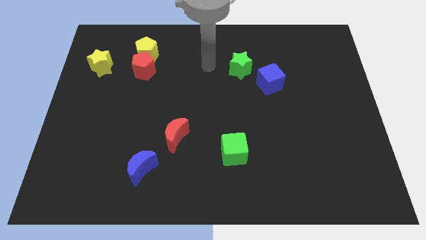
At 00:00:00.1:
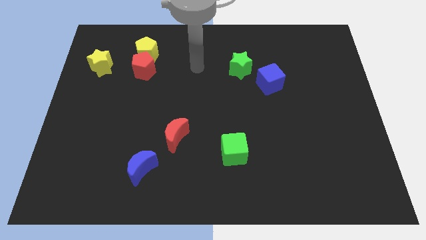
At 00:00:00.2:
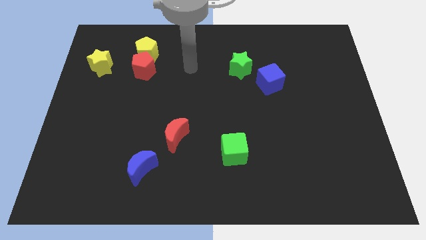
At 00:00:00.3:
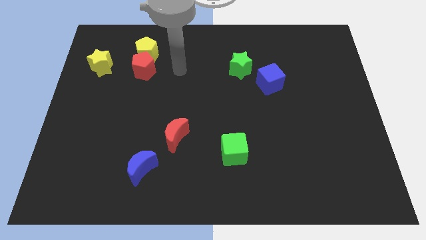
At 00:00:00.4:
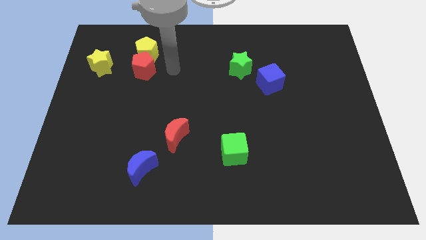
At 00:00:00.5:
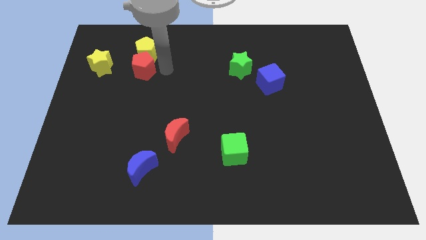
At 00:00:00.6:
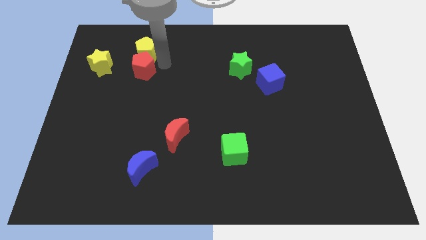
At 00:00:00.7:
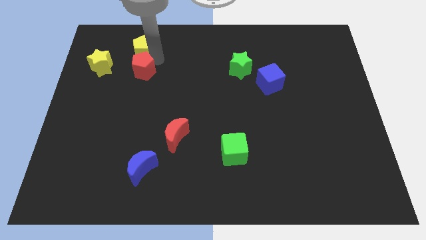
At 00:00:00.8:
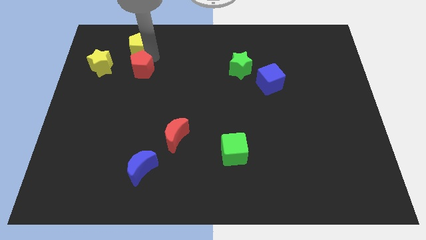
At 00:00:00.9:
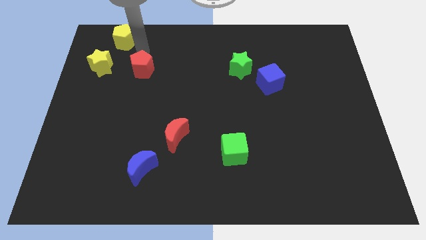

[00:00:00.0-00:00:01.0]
move the red pentagon away from the yellow pentagon

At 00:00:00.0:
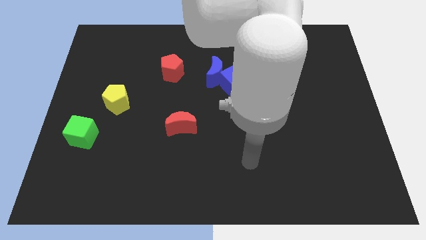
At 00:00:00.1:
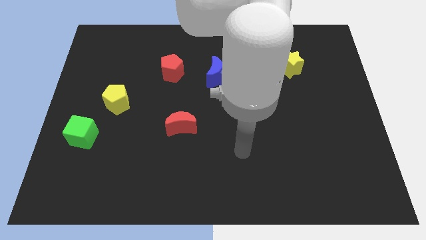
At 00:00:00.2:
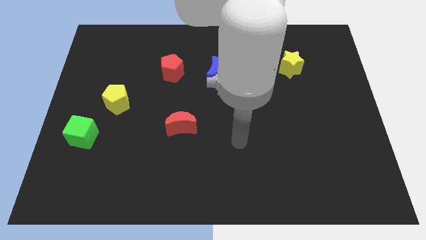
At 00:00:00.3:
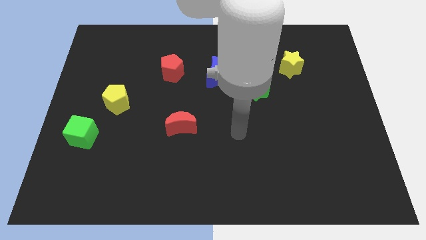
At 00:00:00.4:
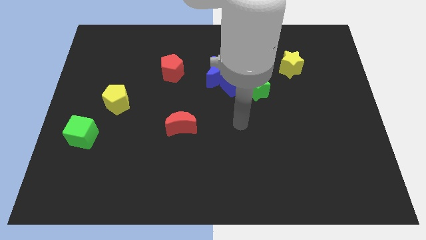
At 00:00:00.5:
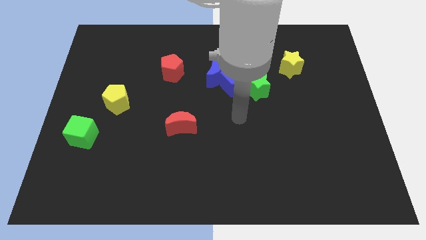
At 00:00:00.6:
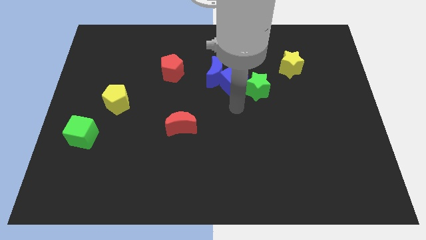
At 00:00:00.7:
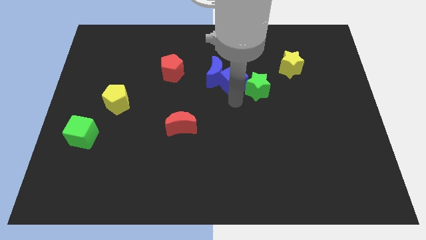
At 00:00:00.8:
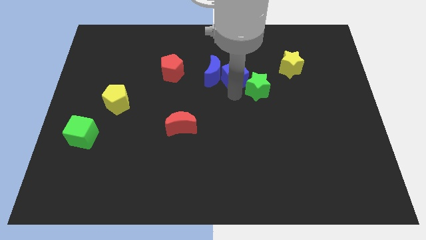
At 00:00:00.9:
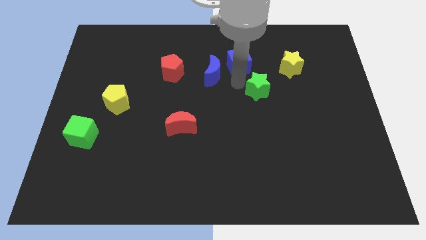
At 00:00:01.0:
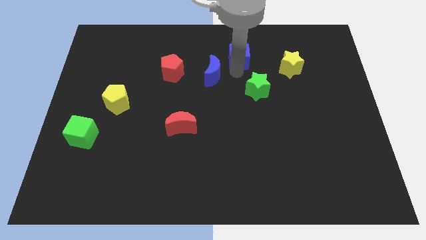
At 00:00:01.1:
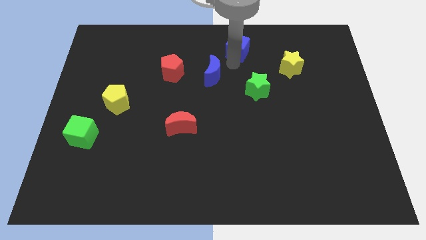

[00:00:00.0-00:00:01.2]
move the blue moon away from the blue cube

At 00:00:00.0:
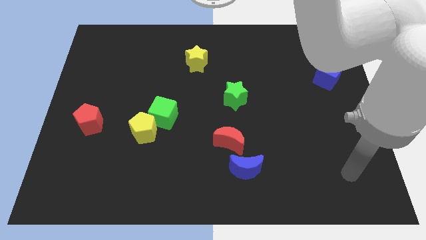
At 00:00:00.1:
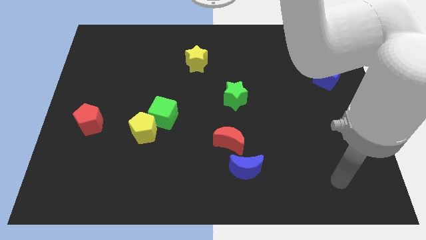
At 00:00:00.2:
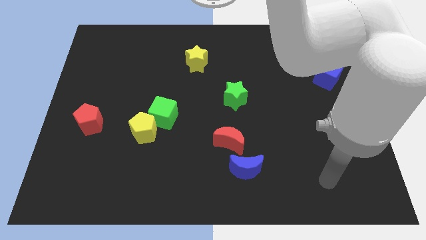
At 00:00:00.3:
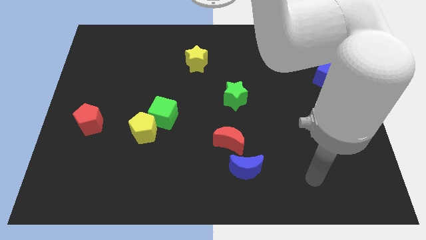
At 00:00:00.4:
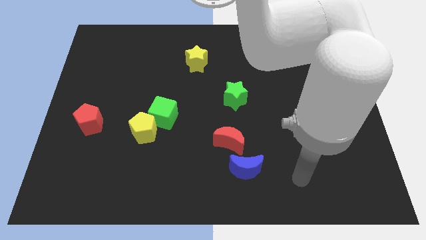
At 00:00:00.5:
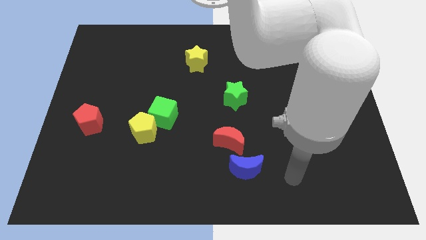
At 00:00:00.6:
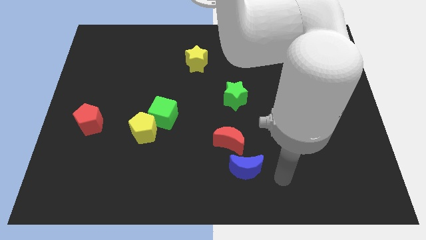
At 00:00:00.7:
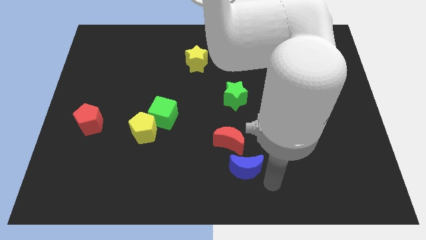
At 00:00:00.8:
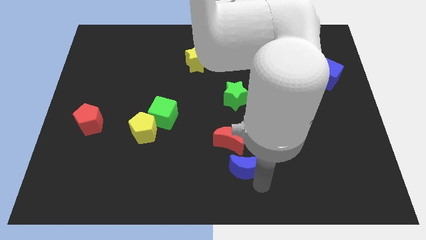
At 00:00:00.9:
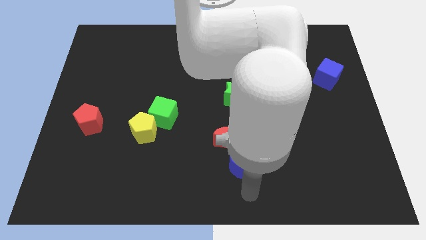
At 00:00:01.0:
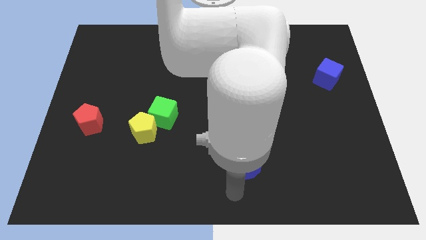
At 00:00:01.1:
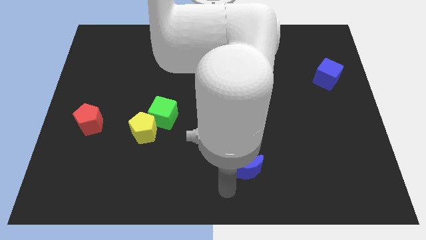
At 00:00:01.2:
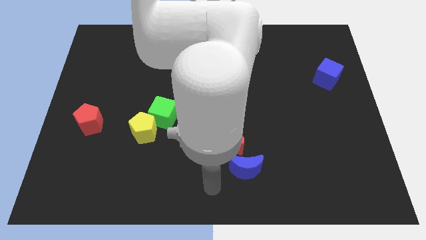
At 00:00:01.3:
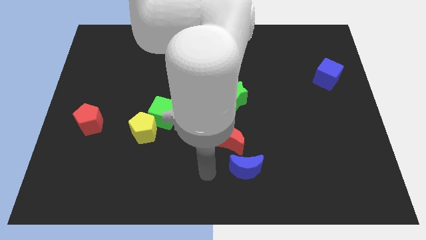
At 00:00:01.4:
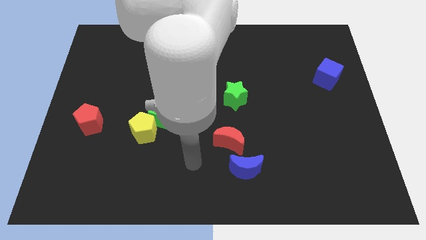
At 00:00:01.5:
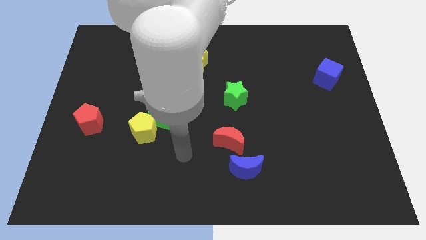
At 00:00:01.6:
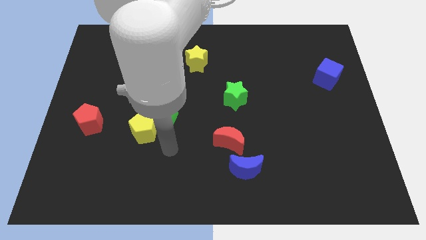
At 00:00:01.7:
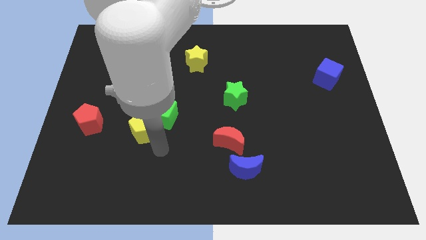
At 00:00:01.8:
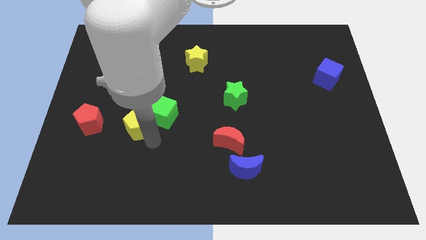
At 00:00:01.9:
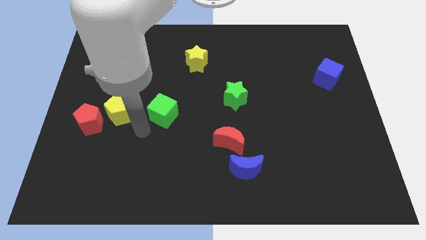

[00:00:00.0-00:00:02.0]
pull the green cube apart from the yellow pentagon

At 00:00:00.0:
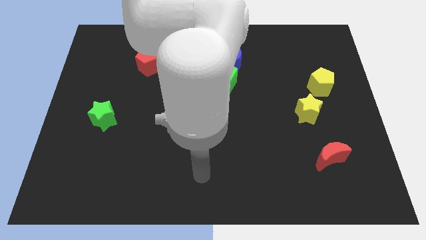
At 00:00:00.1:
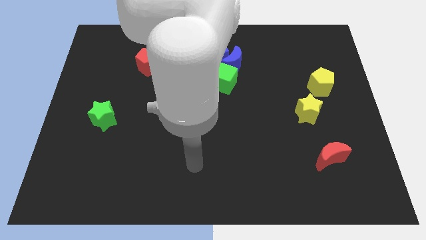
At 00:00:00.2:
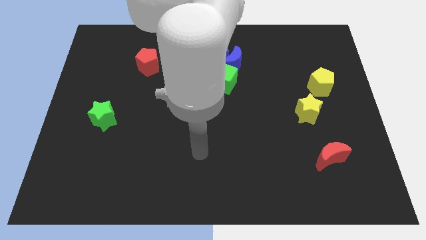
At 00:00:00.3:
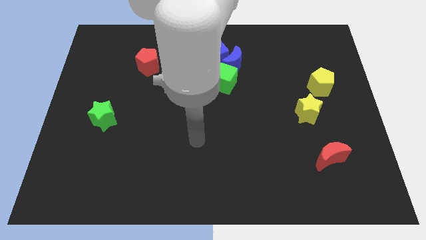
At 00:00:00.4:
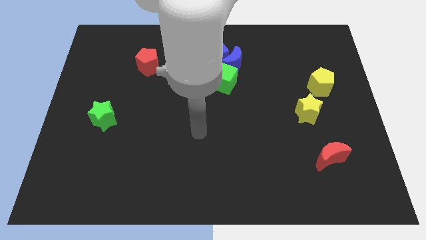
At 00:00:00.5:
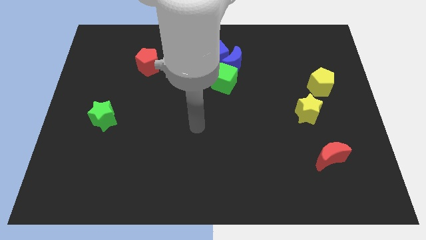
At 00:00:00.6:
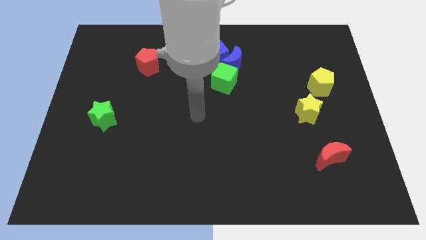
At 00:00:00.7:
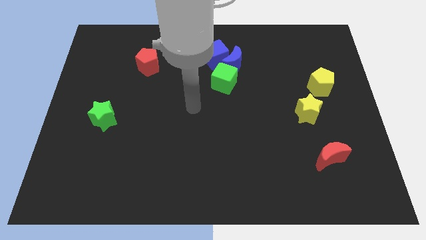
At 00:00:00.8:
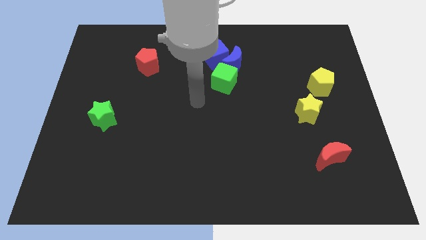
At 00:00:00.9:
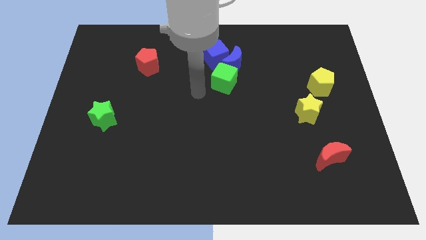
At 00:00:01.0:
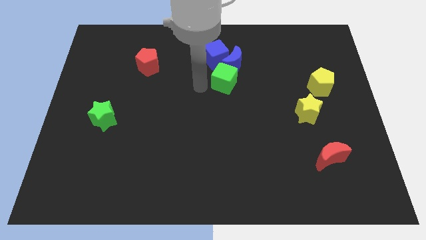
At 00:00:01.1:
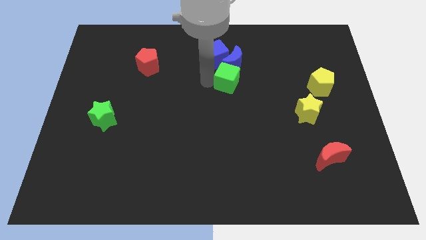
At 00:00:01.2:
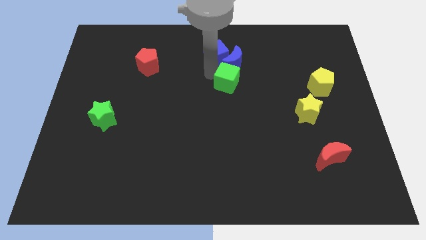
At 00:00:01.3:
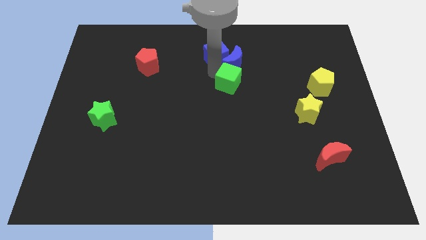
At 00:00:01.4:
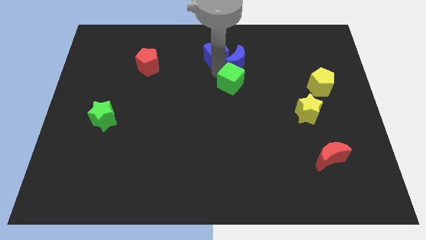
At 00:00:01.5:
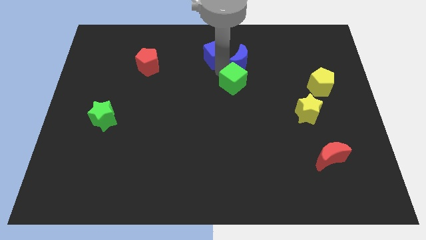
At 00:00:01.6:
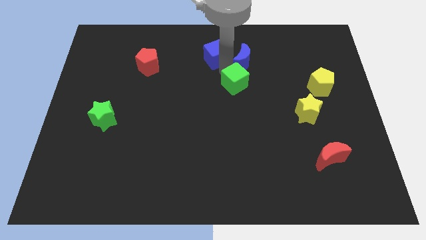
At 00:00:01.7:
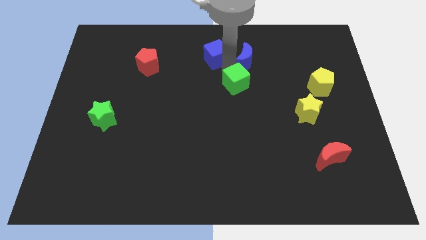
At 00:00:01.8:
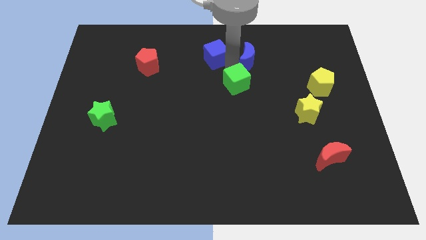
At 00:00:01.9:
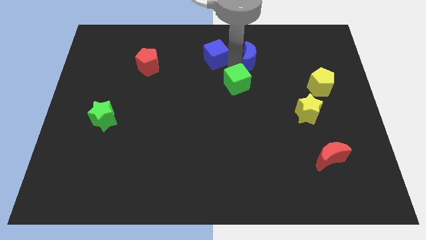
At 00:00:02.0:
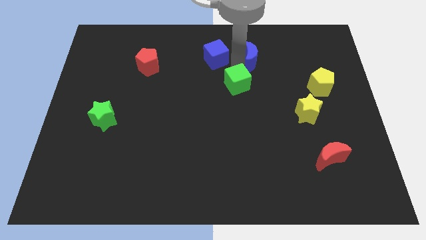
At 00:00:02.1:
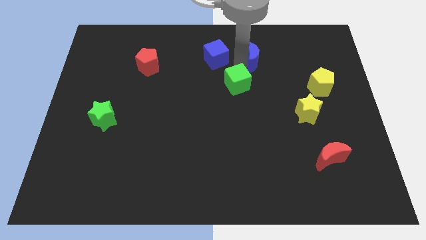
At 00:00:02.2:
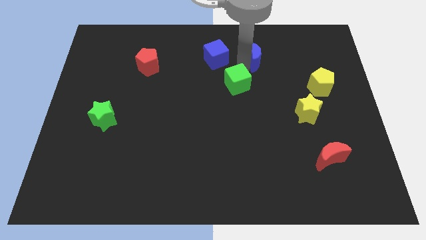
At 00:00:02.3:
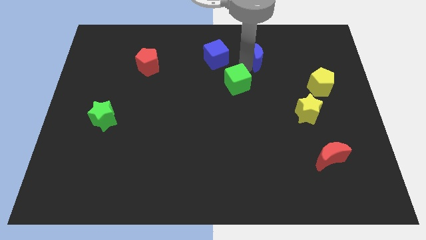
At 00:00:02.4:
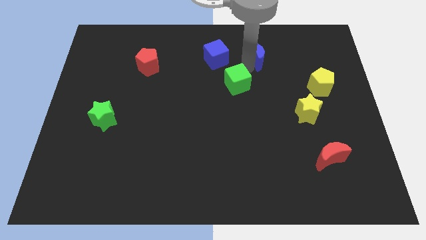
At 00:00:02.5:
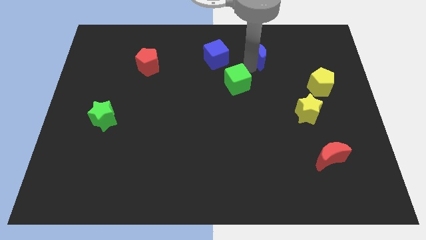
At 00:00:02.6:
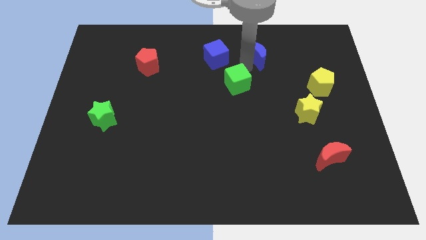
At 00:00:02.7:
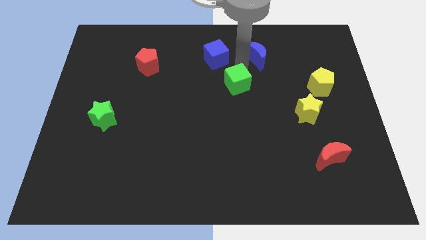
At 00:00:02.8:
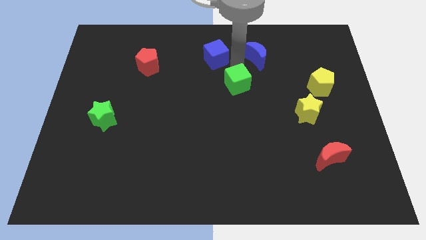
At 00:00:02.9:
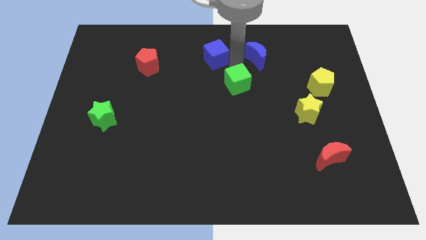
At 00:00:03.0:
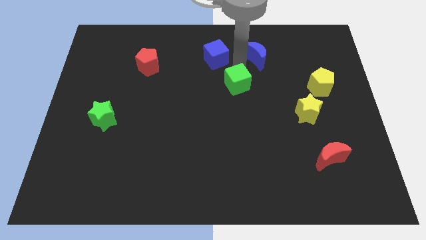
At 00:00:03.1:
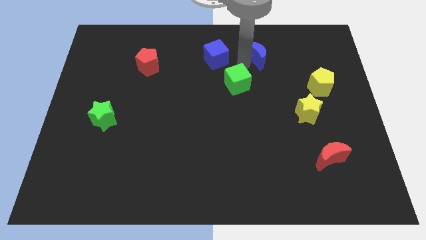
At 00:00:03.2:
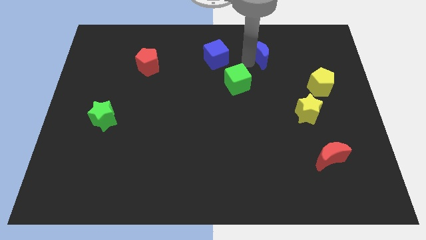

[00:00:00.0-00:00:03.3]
move the blue moon away from the blue cube and green cube

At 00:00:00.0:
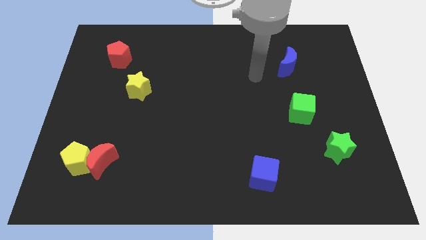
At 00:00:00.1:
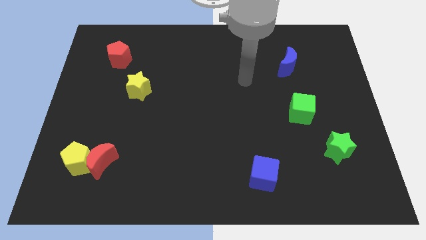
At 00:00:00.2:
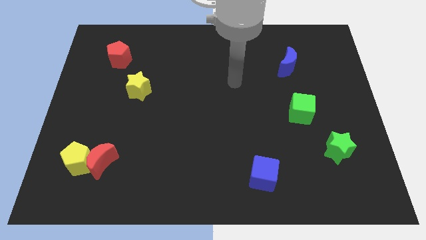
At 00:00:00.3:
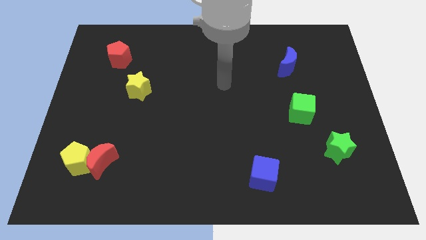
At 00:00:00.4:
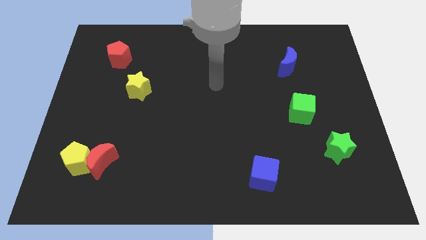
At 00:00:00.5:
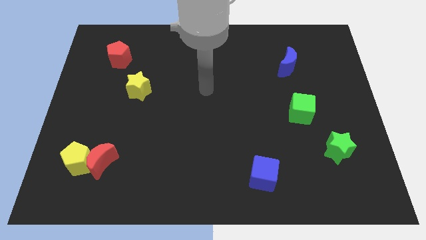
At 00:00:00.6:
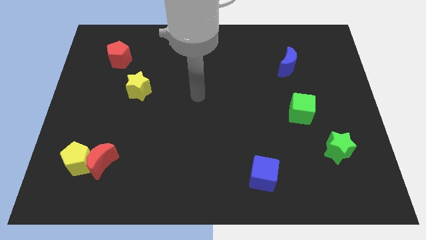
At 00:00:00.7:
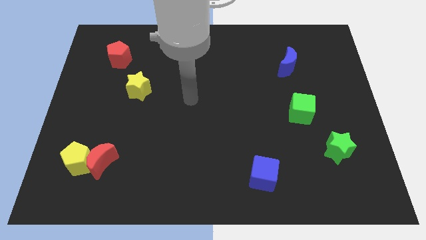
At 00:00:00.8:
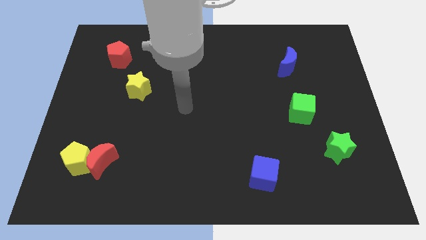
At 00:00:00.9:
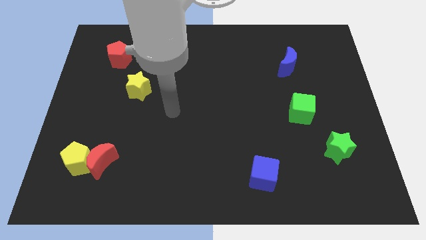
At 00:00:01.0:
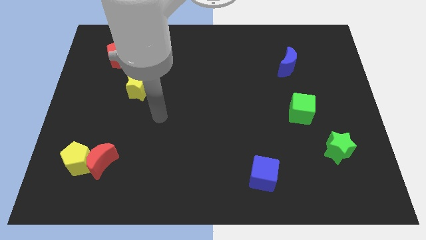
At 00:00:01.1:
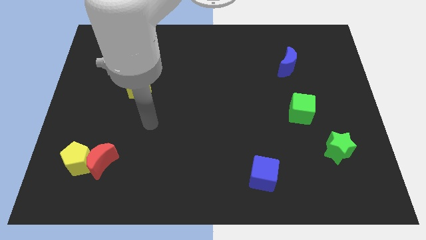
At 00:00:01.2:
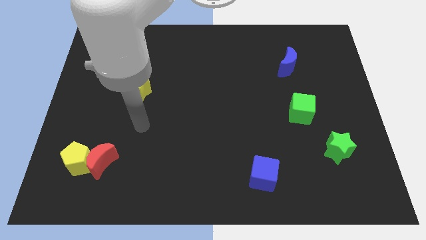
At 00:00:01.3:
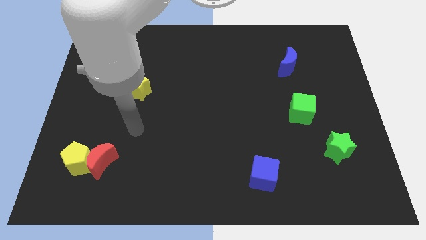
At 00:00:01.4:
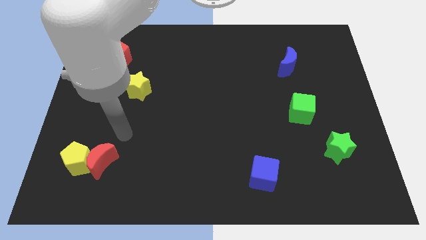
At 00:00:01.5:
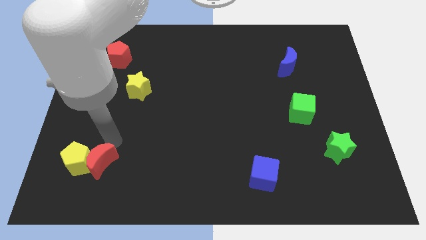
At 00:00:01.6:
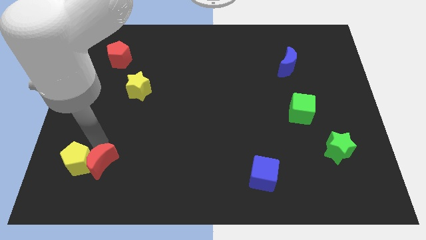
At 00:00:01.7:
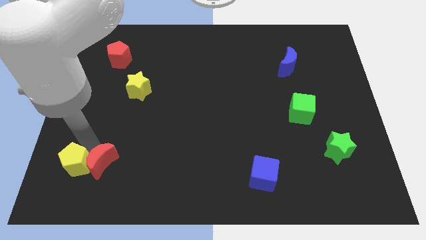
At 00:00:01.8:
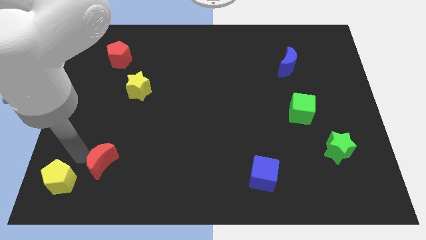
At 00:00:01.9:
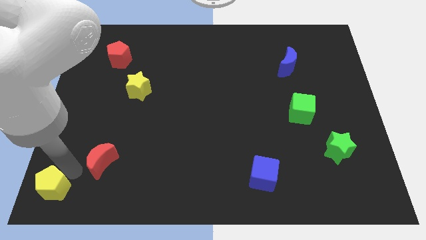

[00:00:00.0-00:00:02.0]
move the red moon away from the yellow pentagon
